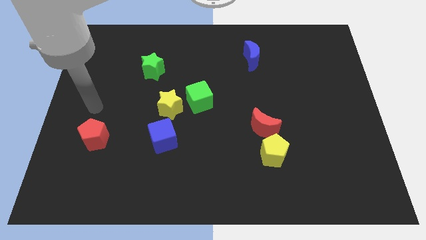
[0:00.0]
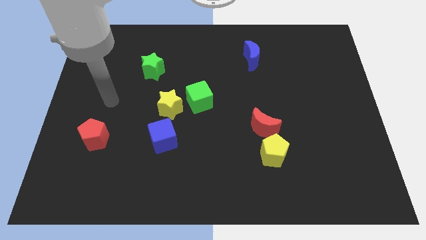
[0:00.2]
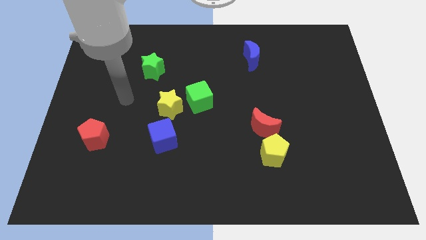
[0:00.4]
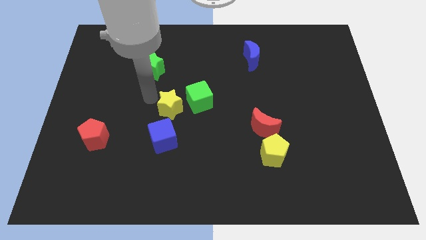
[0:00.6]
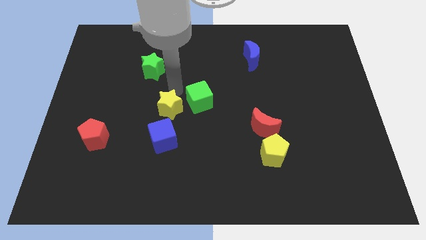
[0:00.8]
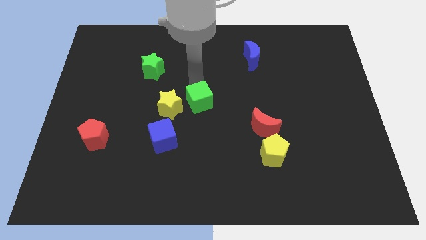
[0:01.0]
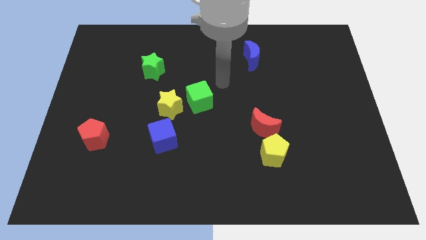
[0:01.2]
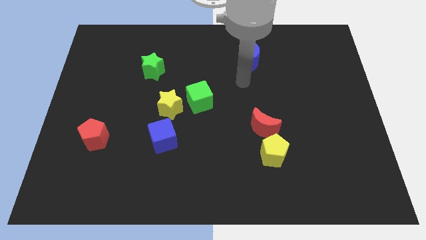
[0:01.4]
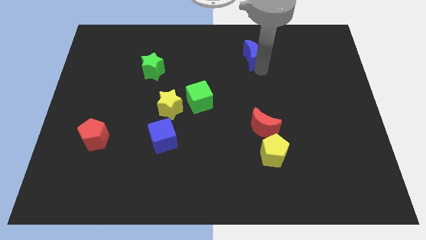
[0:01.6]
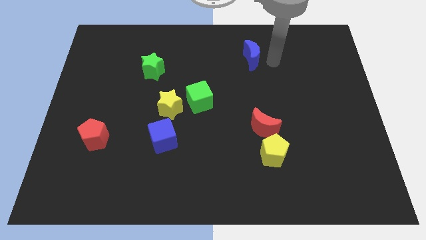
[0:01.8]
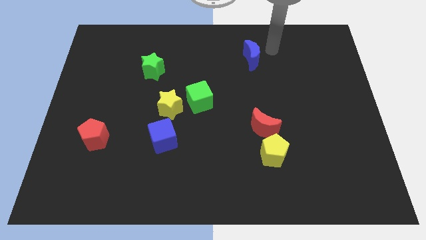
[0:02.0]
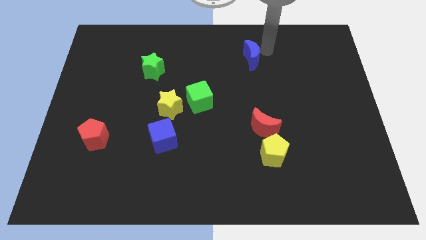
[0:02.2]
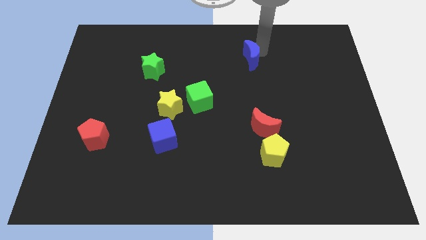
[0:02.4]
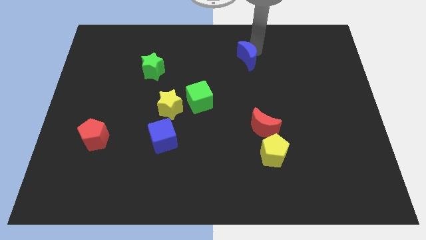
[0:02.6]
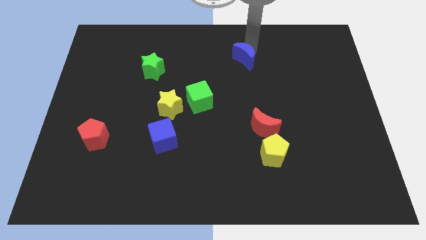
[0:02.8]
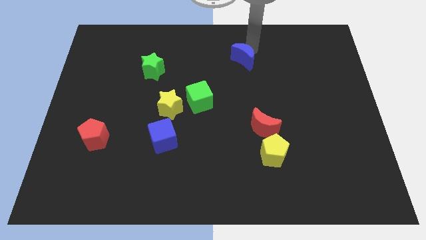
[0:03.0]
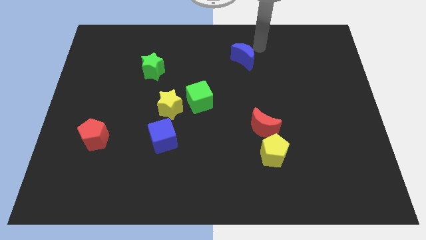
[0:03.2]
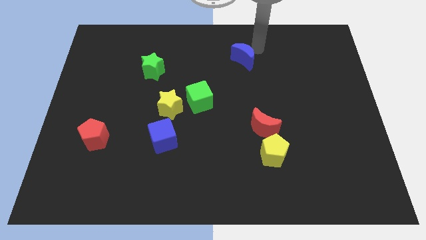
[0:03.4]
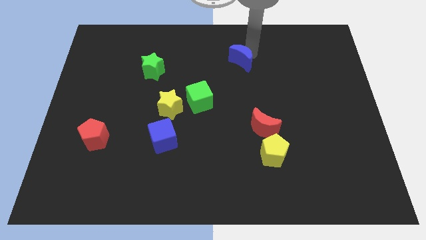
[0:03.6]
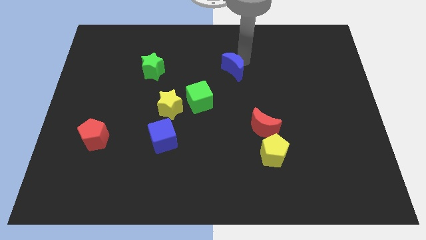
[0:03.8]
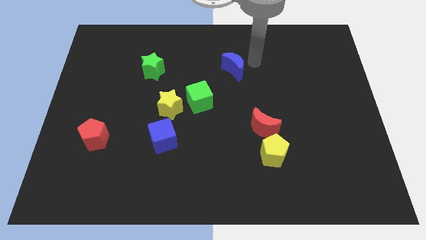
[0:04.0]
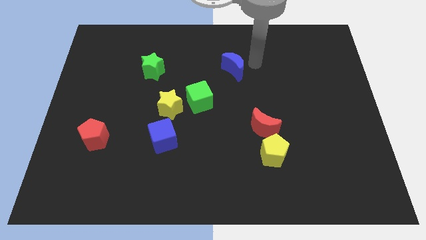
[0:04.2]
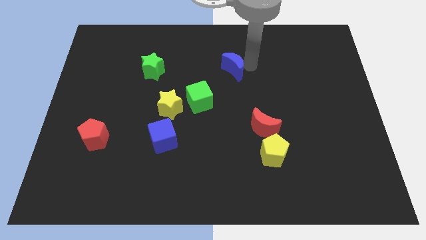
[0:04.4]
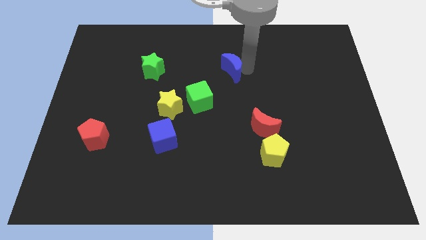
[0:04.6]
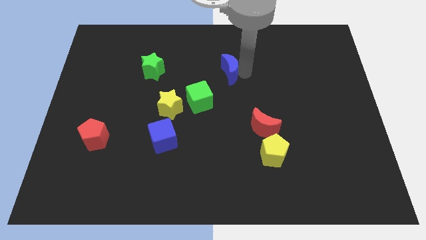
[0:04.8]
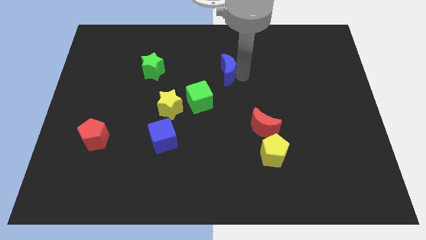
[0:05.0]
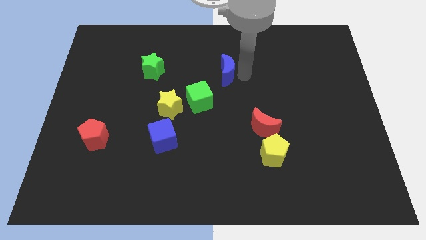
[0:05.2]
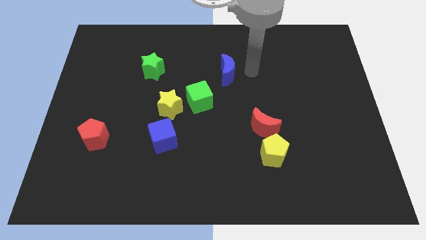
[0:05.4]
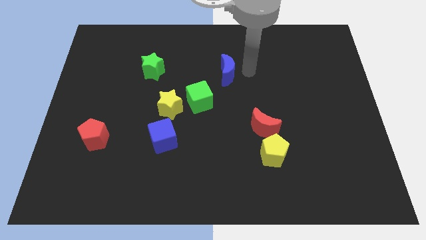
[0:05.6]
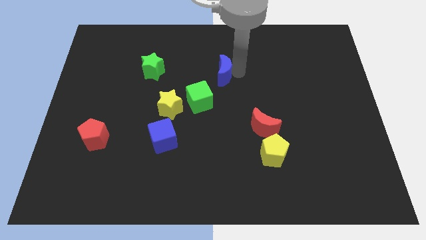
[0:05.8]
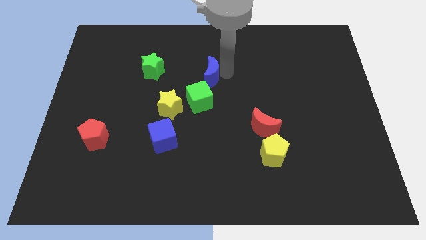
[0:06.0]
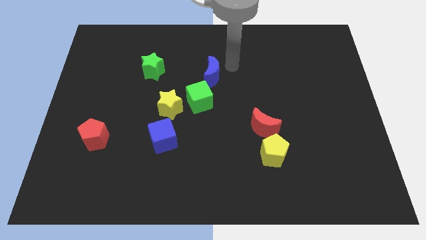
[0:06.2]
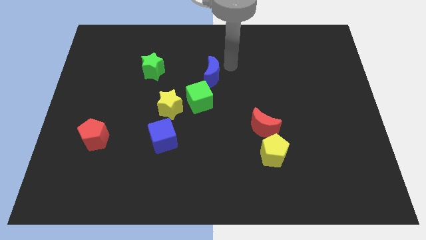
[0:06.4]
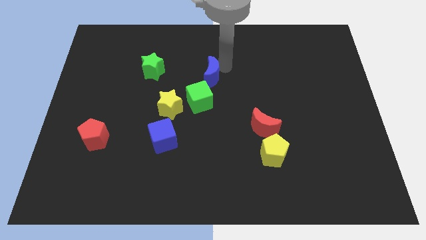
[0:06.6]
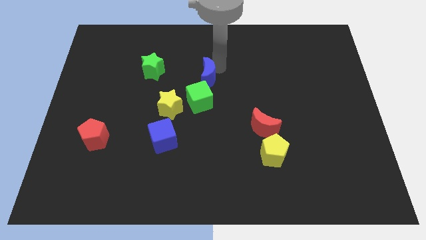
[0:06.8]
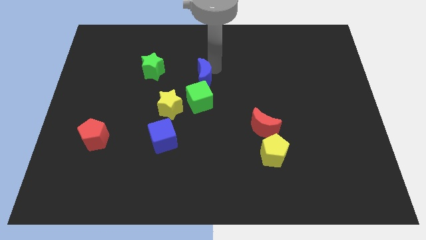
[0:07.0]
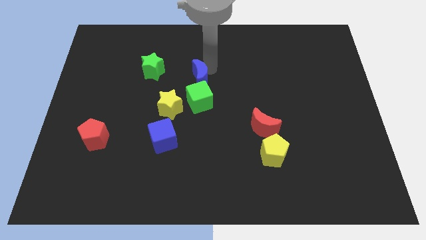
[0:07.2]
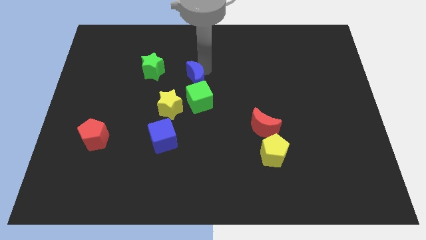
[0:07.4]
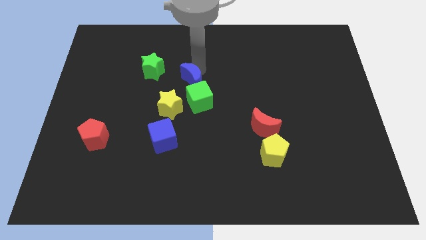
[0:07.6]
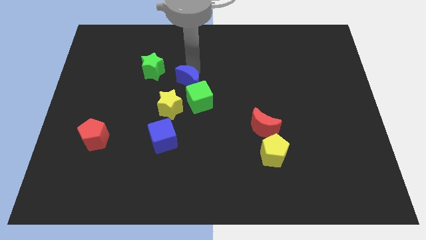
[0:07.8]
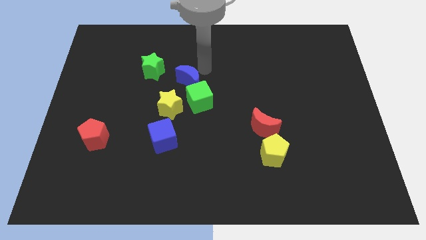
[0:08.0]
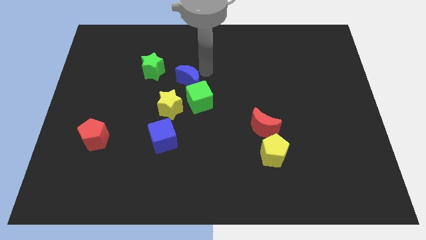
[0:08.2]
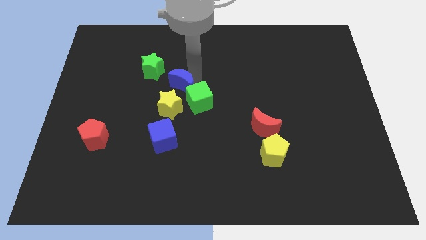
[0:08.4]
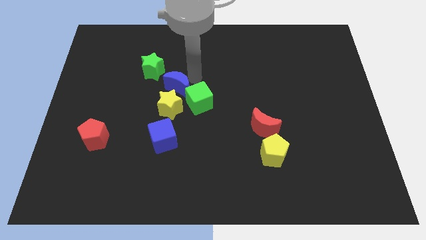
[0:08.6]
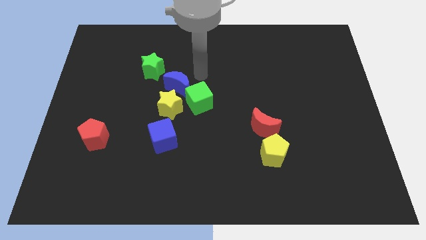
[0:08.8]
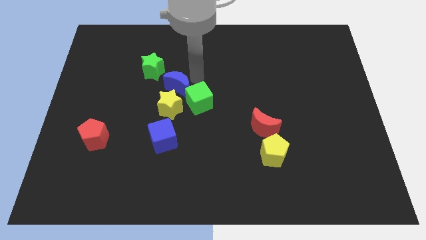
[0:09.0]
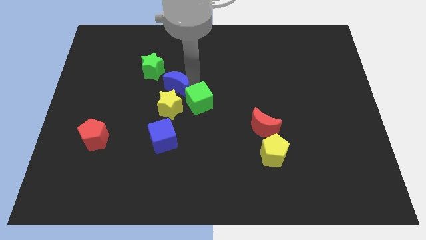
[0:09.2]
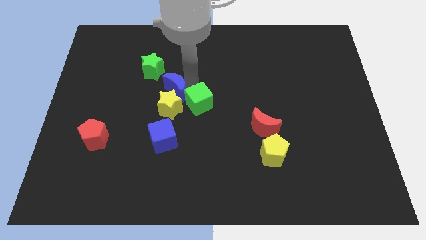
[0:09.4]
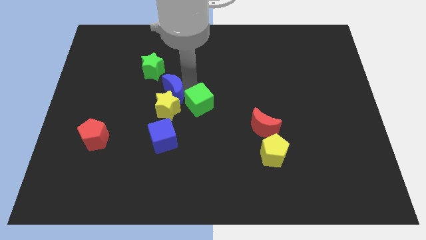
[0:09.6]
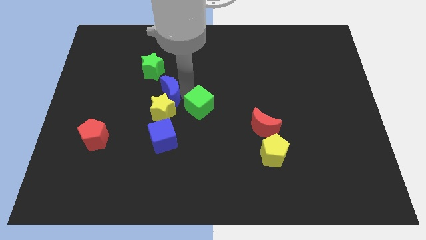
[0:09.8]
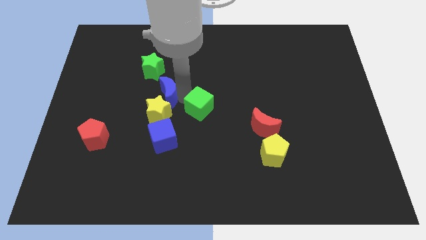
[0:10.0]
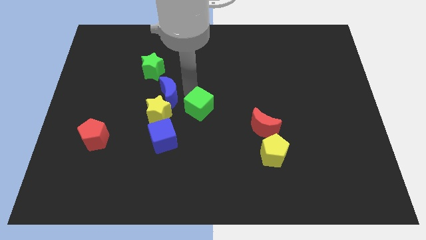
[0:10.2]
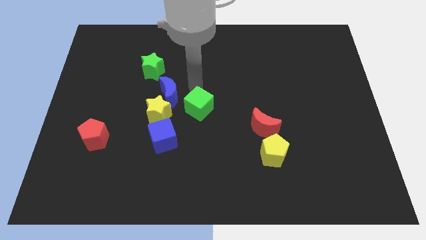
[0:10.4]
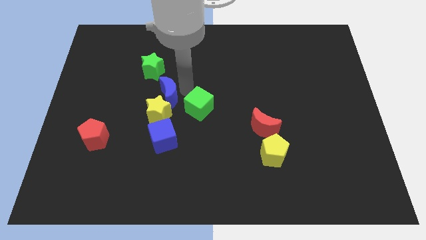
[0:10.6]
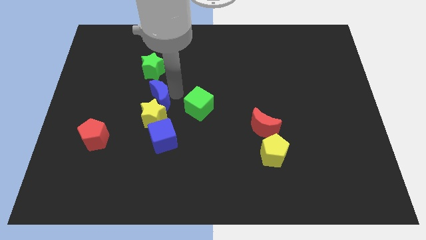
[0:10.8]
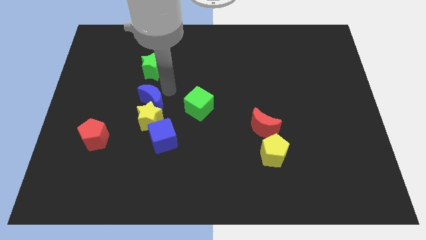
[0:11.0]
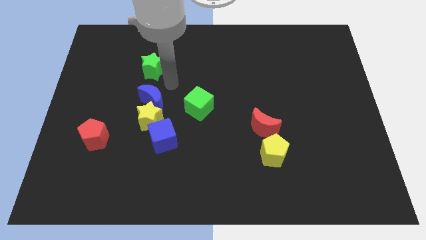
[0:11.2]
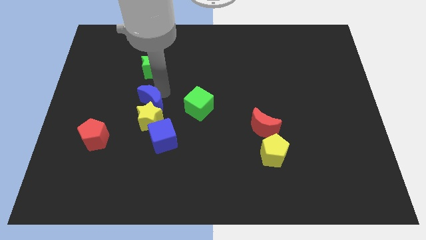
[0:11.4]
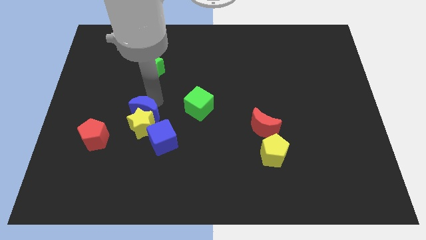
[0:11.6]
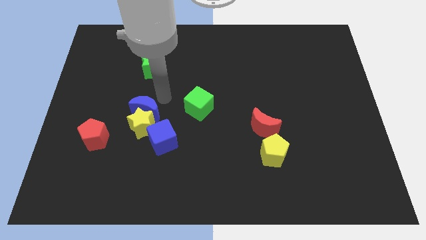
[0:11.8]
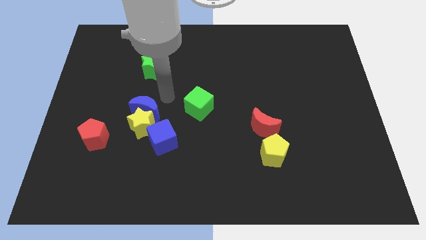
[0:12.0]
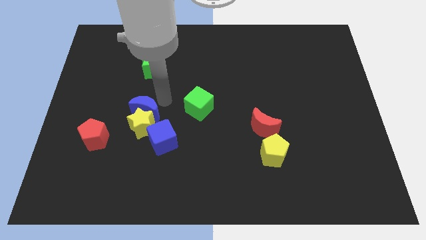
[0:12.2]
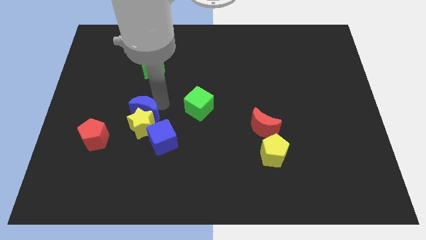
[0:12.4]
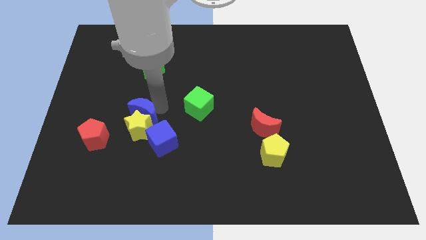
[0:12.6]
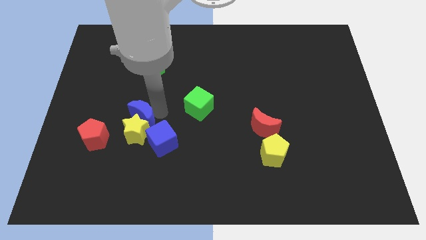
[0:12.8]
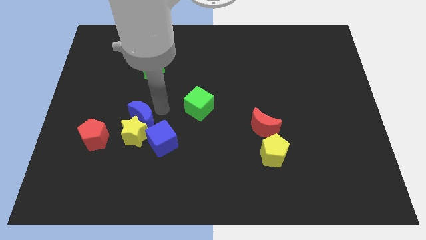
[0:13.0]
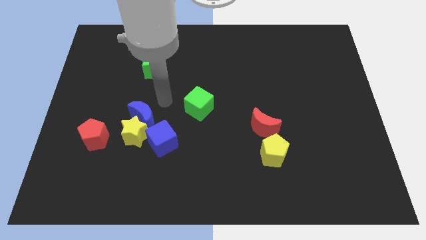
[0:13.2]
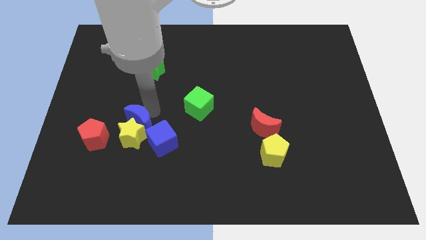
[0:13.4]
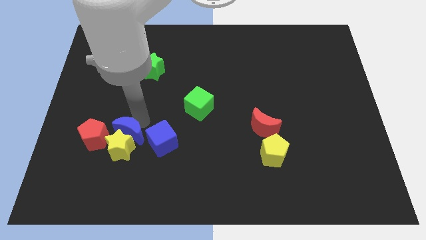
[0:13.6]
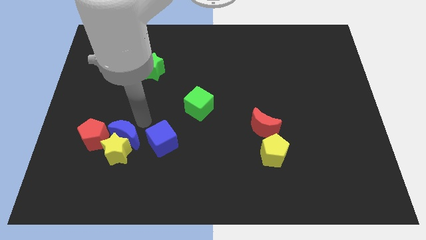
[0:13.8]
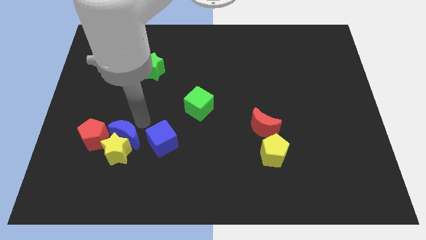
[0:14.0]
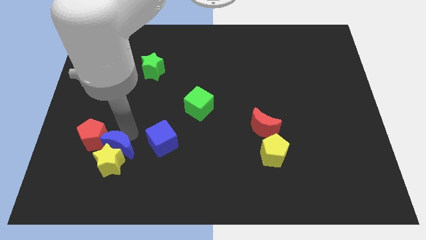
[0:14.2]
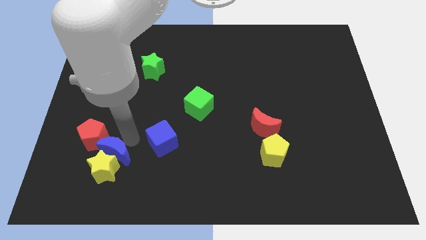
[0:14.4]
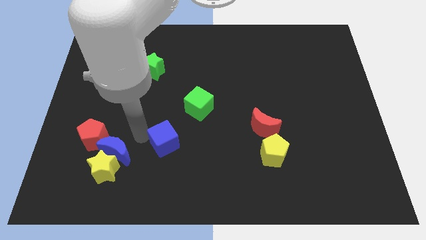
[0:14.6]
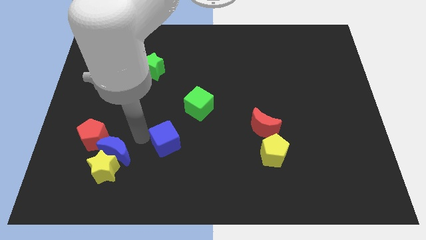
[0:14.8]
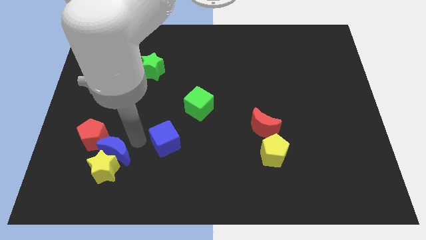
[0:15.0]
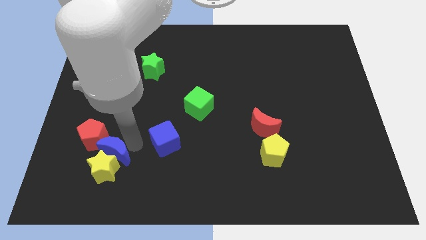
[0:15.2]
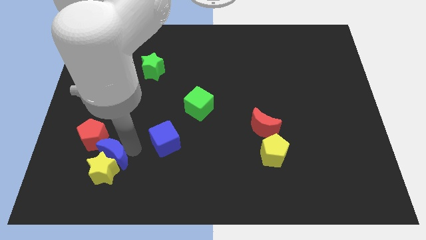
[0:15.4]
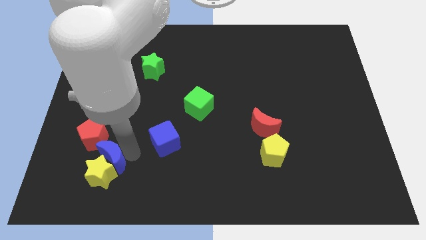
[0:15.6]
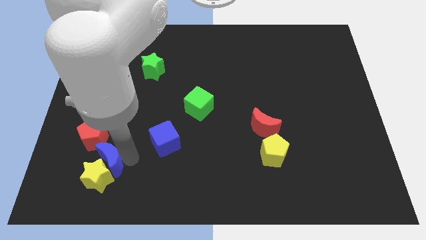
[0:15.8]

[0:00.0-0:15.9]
move the blue moon to the bottom side of the red pentagon
